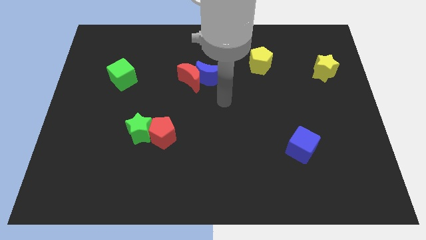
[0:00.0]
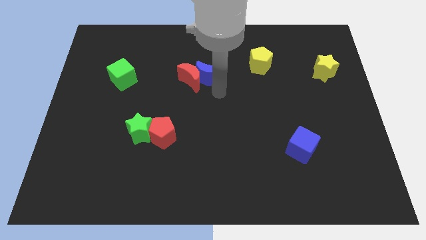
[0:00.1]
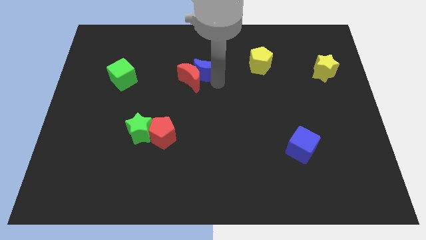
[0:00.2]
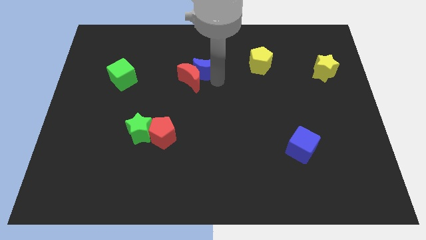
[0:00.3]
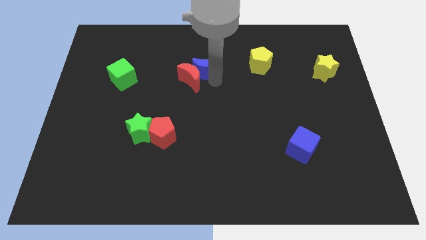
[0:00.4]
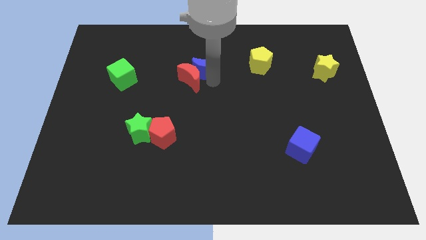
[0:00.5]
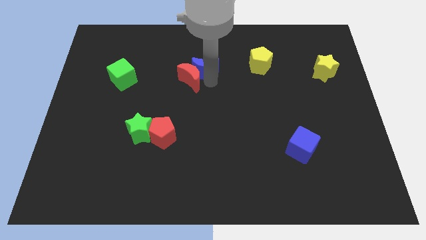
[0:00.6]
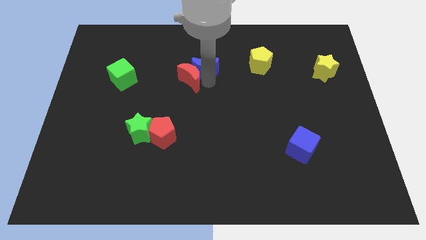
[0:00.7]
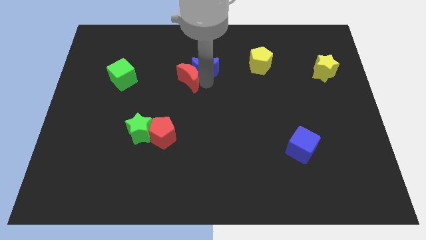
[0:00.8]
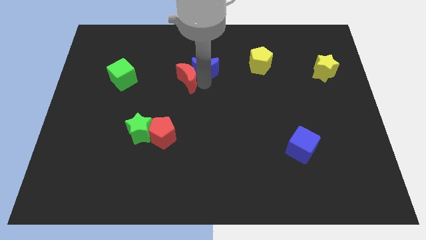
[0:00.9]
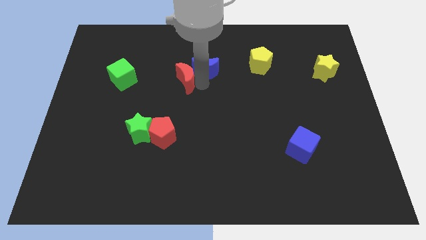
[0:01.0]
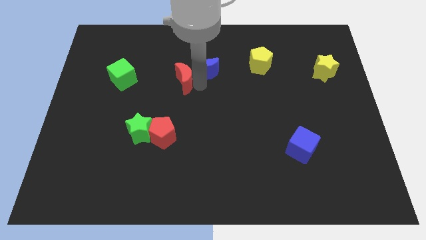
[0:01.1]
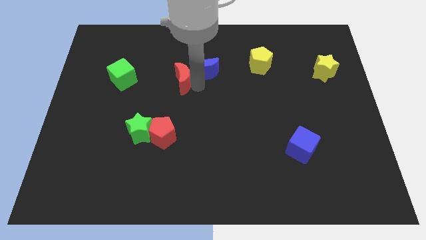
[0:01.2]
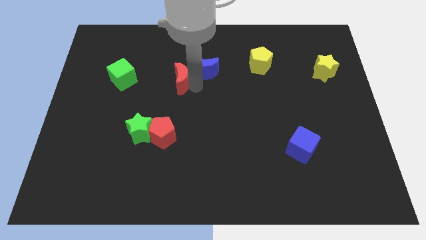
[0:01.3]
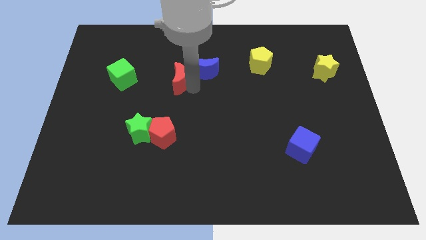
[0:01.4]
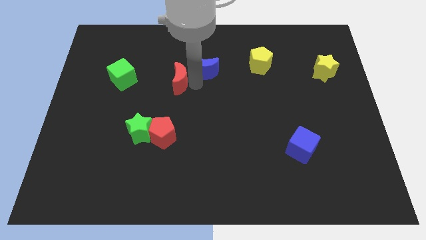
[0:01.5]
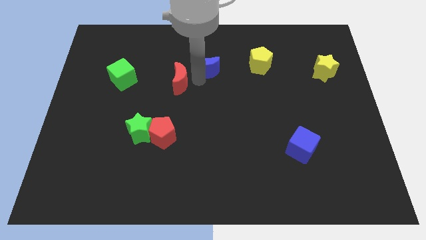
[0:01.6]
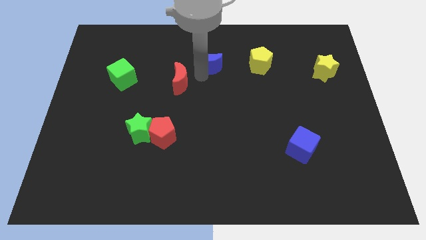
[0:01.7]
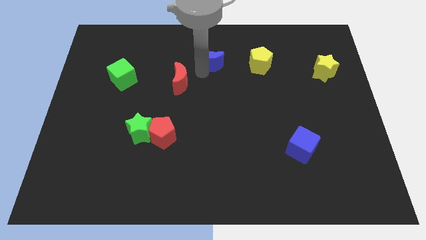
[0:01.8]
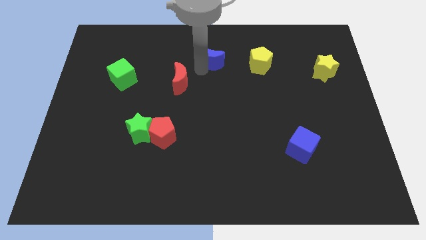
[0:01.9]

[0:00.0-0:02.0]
pull the red moon apart from the blue moon

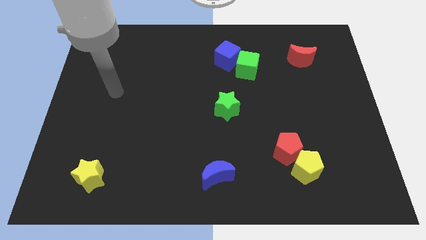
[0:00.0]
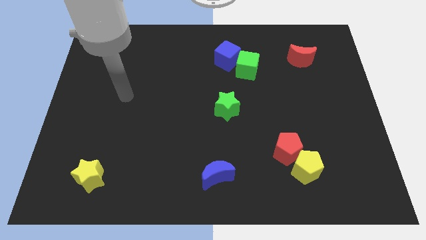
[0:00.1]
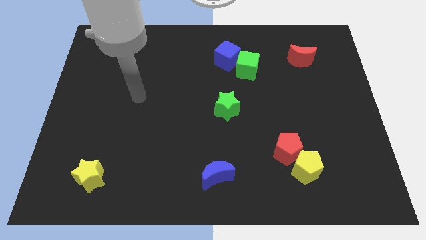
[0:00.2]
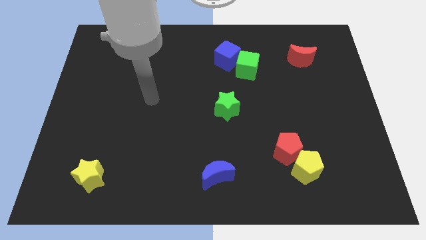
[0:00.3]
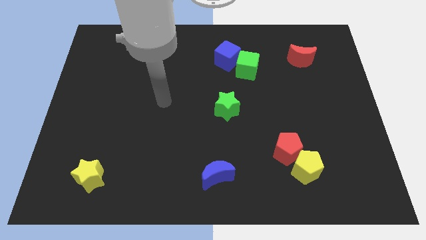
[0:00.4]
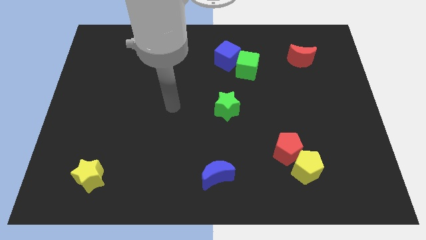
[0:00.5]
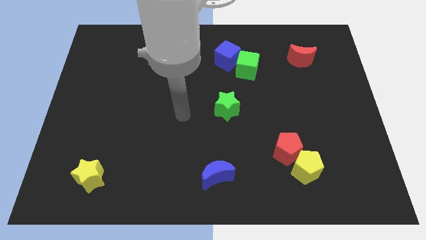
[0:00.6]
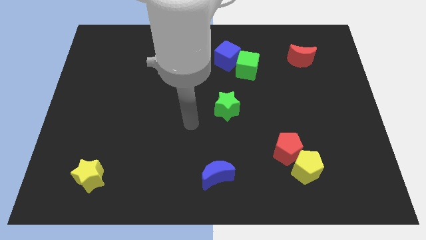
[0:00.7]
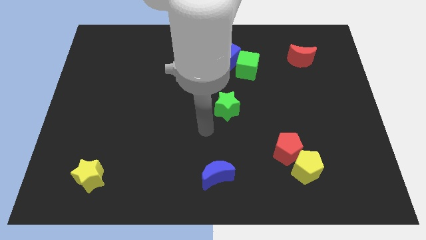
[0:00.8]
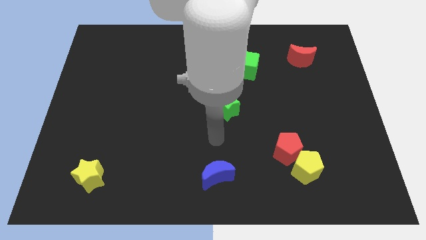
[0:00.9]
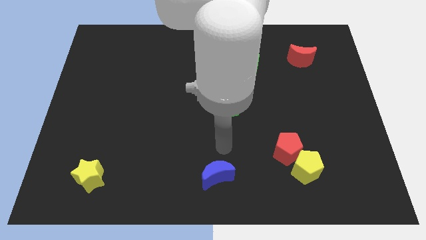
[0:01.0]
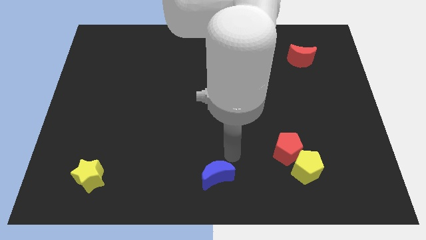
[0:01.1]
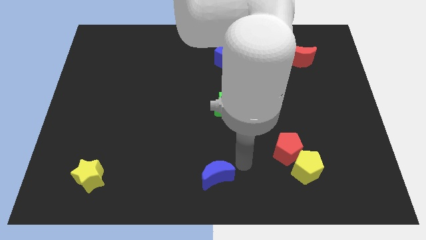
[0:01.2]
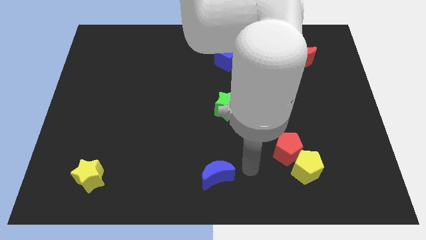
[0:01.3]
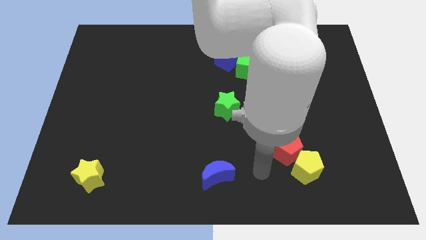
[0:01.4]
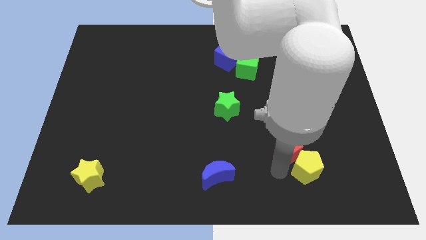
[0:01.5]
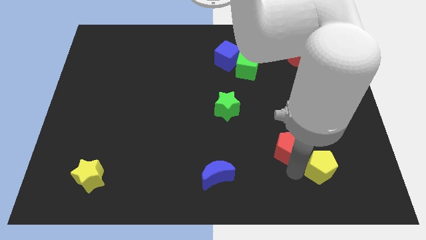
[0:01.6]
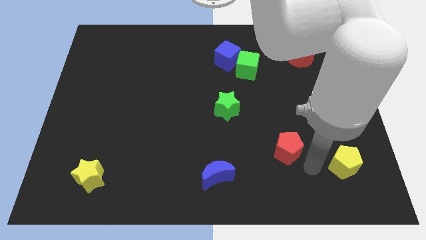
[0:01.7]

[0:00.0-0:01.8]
separate the red pentagon from the yellow pentagon

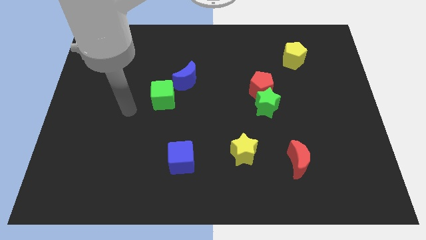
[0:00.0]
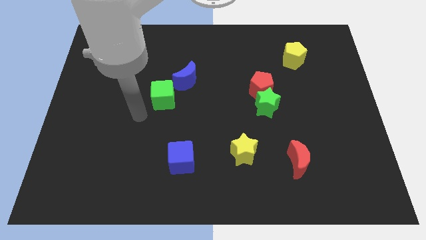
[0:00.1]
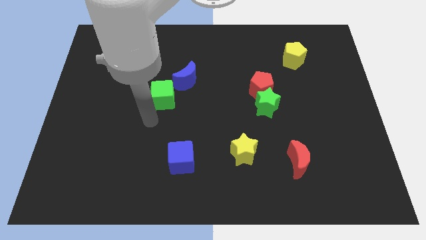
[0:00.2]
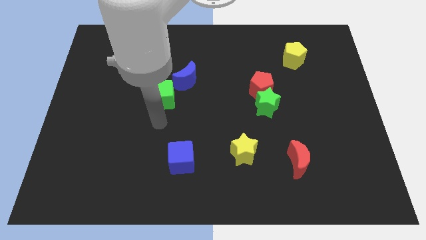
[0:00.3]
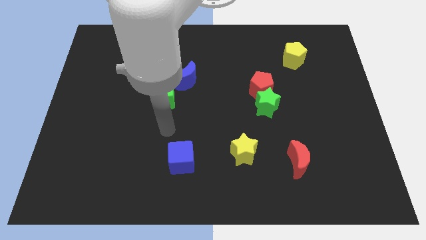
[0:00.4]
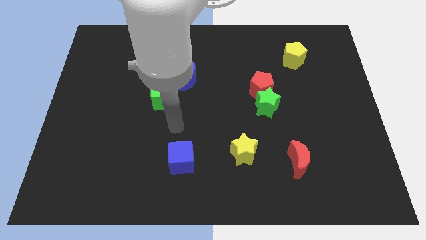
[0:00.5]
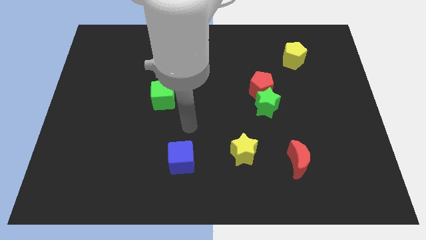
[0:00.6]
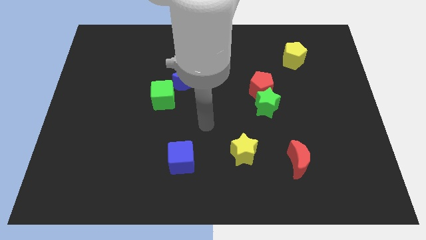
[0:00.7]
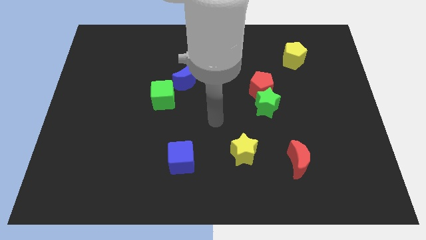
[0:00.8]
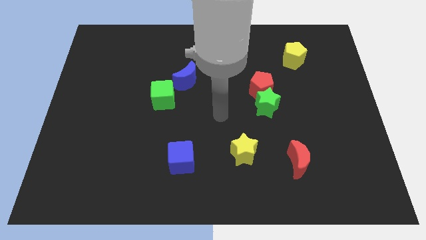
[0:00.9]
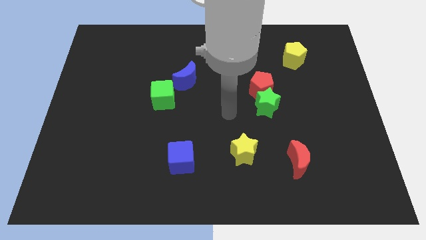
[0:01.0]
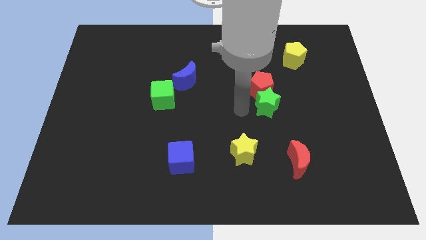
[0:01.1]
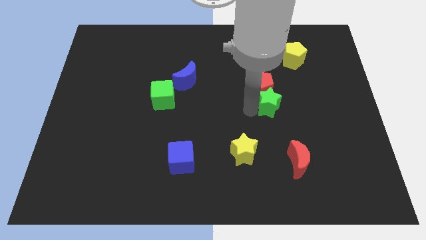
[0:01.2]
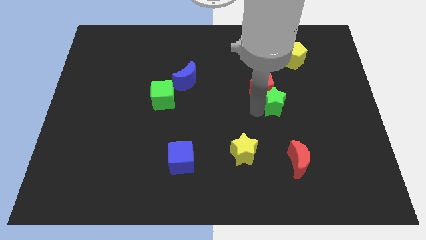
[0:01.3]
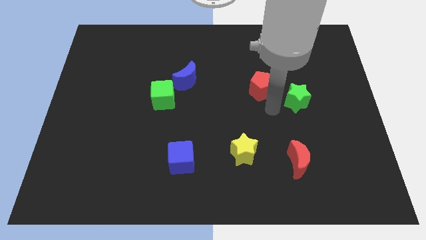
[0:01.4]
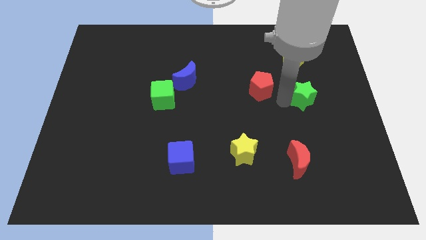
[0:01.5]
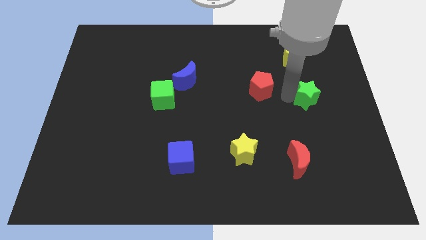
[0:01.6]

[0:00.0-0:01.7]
pull the red pentagon apart from the green star

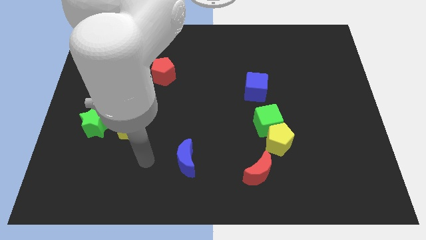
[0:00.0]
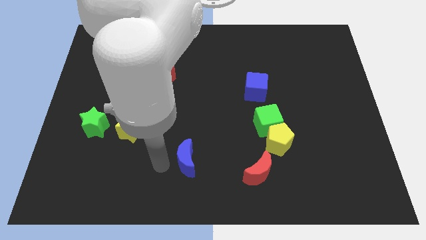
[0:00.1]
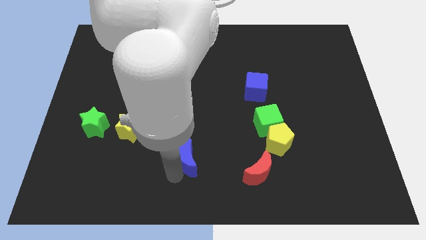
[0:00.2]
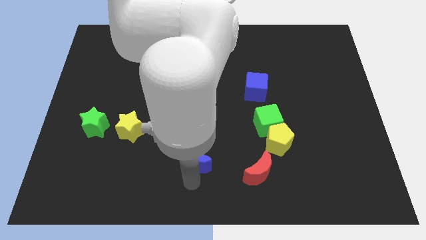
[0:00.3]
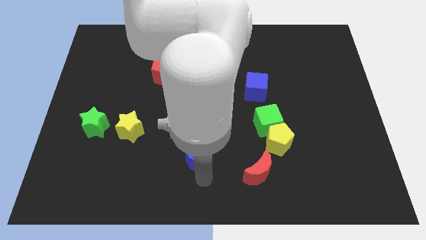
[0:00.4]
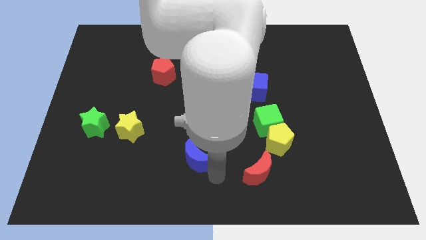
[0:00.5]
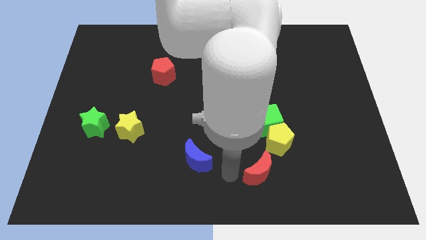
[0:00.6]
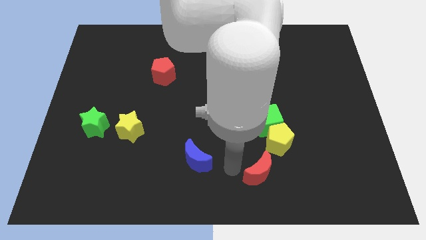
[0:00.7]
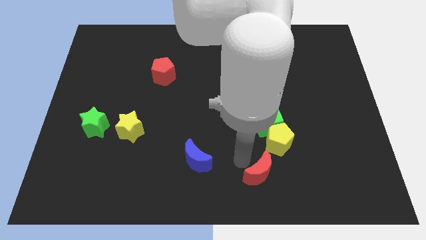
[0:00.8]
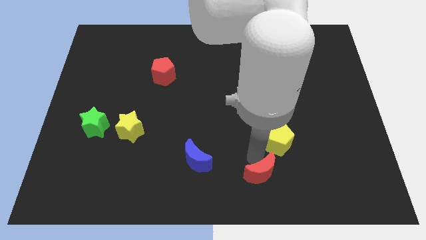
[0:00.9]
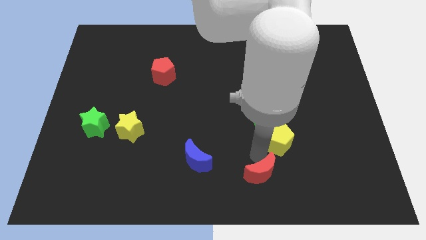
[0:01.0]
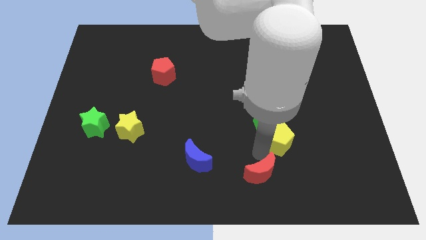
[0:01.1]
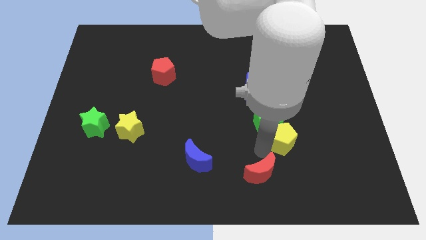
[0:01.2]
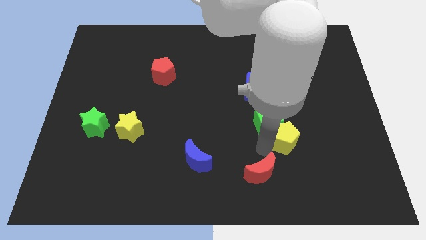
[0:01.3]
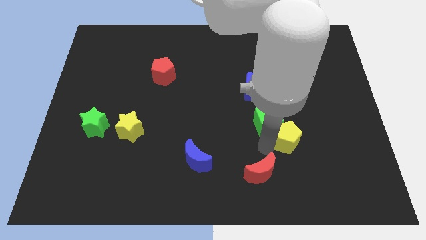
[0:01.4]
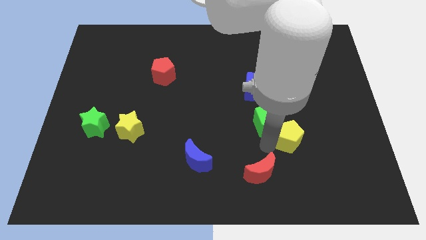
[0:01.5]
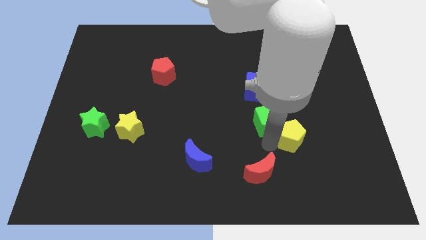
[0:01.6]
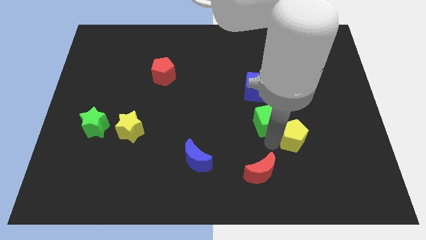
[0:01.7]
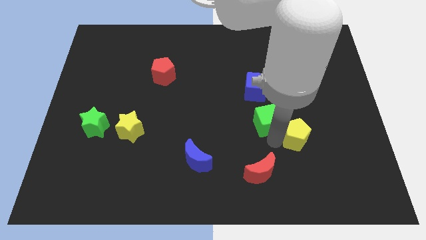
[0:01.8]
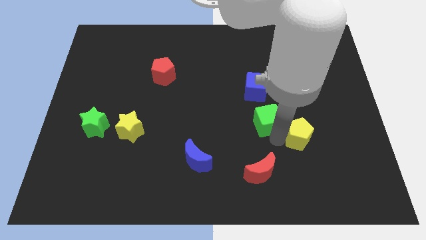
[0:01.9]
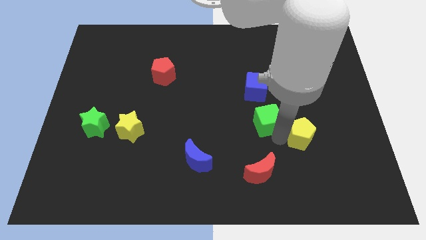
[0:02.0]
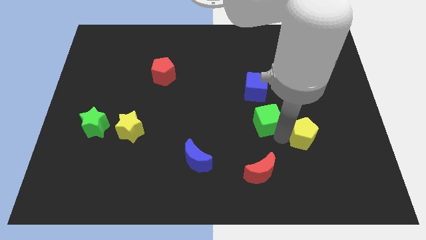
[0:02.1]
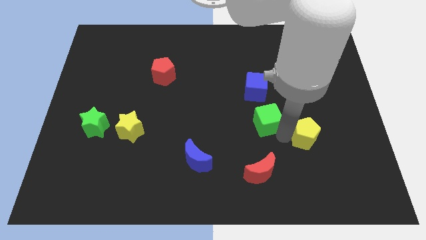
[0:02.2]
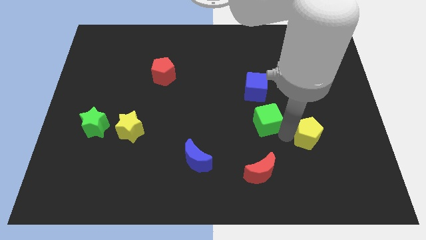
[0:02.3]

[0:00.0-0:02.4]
separate the yellow pentagon from the green cube and red moon

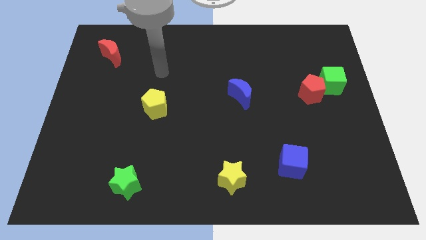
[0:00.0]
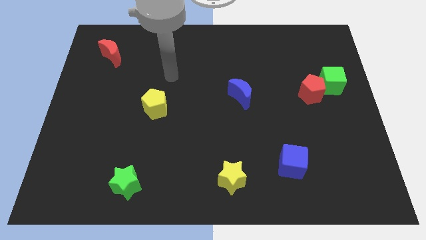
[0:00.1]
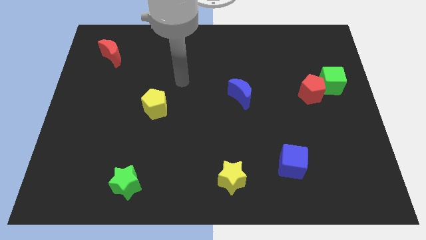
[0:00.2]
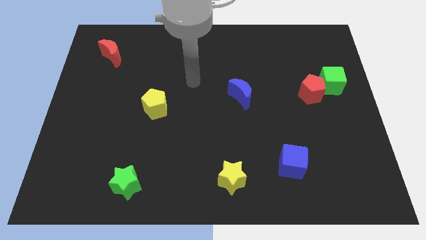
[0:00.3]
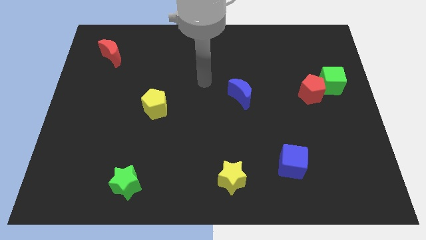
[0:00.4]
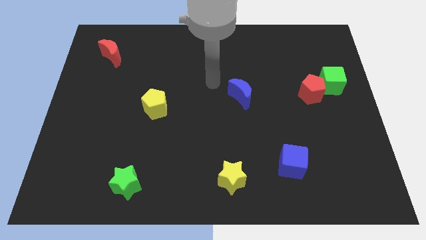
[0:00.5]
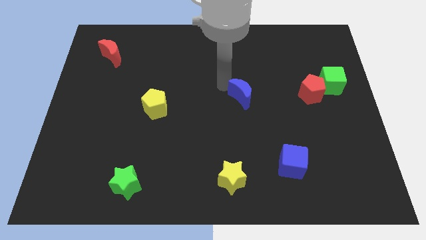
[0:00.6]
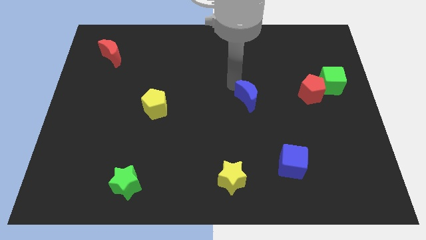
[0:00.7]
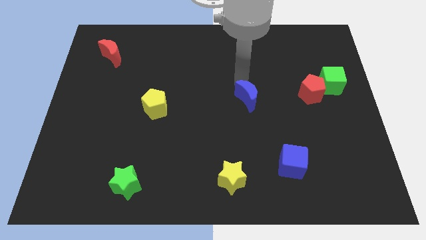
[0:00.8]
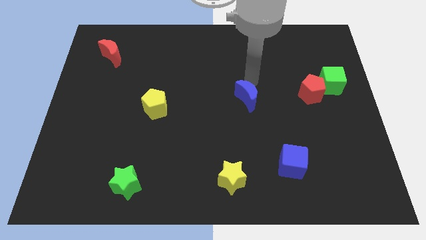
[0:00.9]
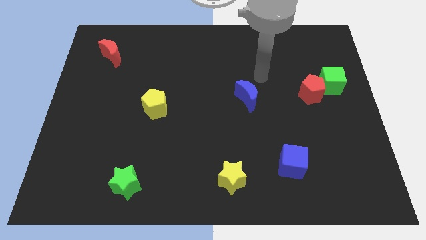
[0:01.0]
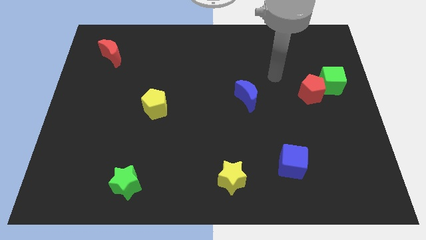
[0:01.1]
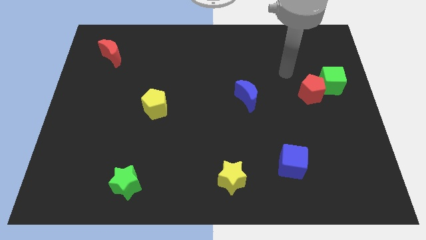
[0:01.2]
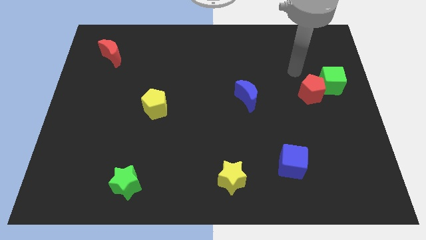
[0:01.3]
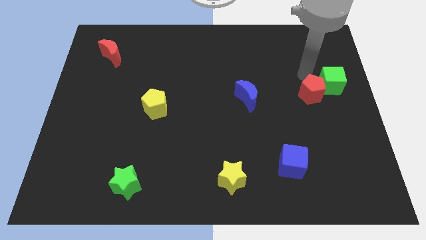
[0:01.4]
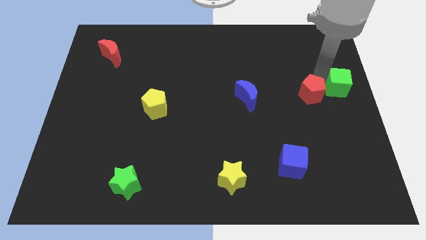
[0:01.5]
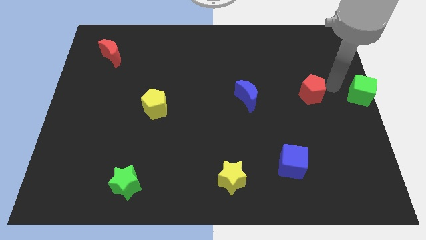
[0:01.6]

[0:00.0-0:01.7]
move the red pentagon away from the green cube
